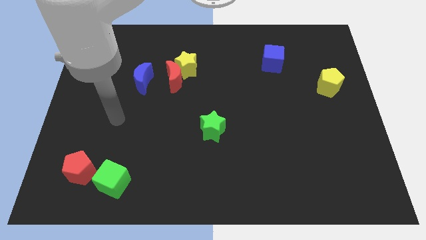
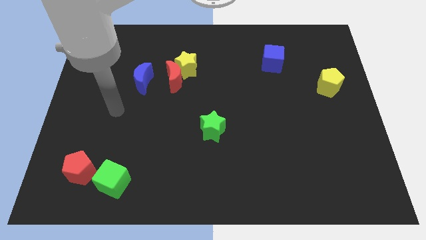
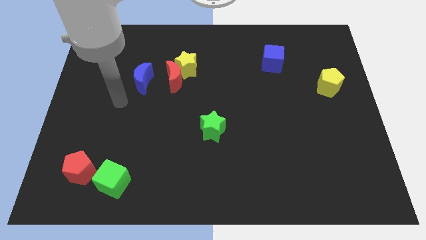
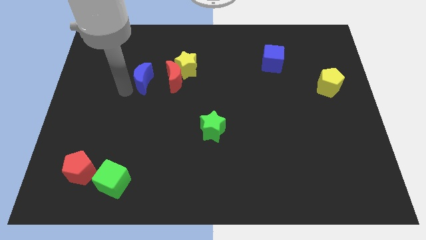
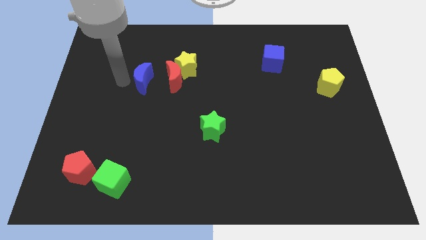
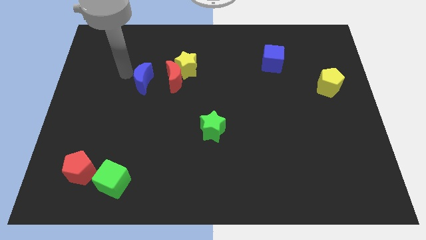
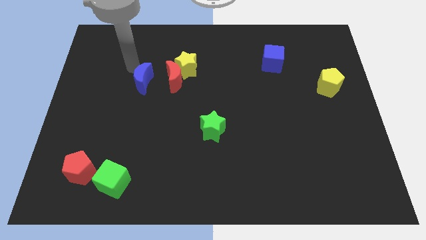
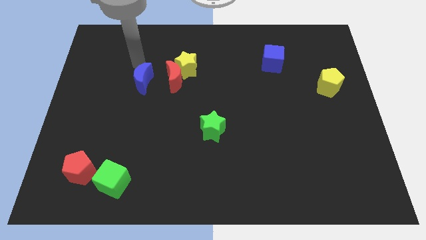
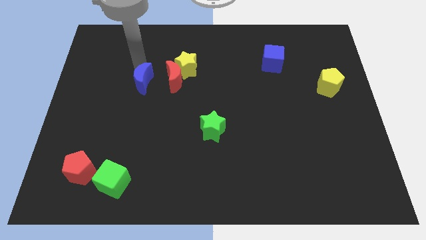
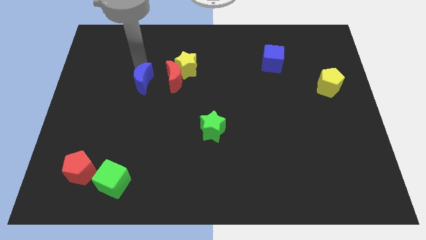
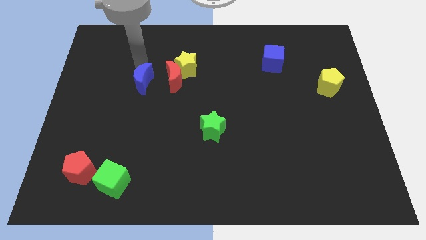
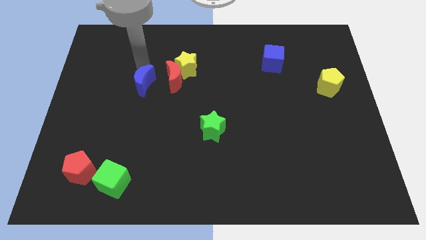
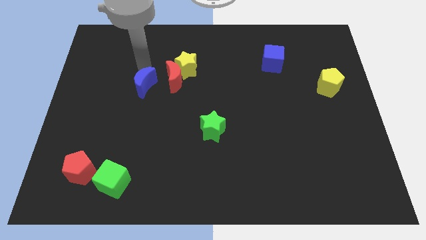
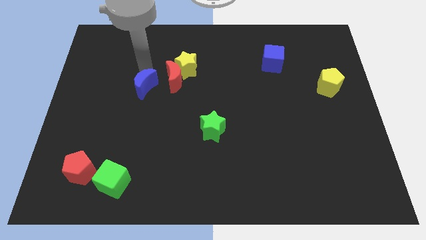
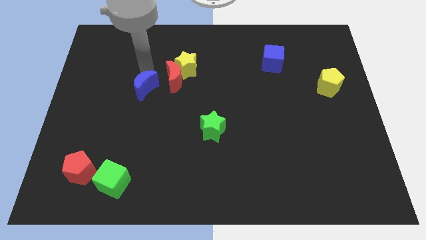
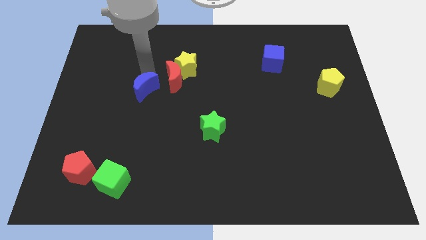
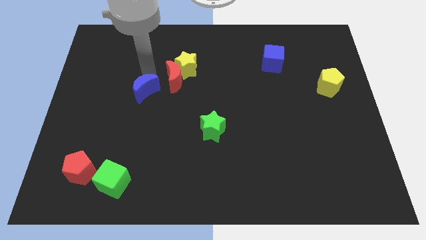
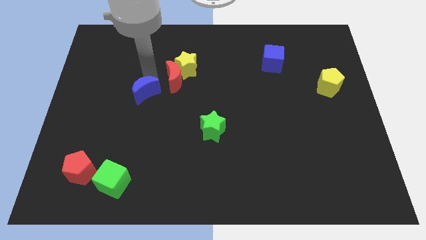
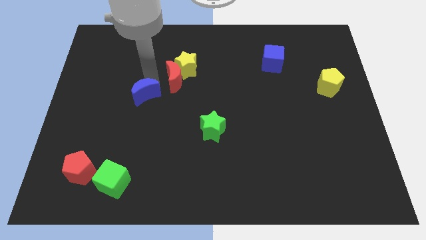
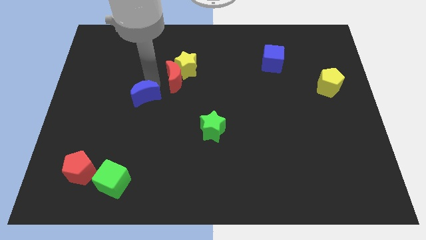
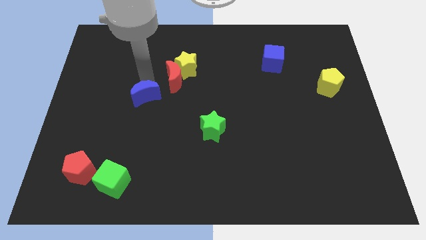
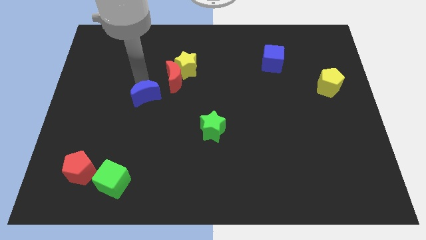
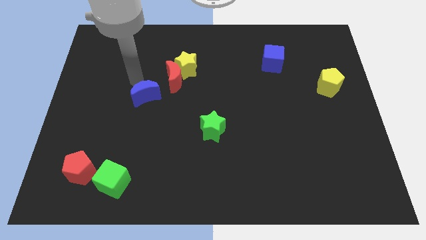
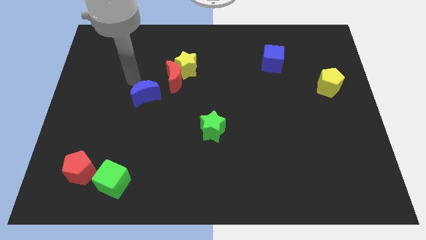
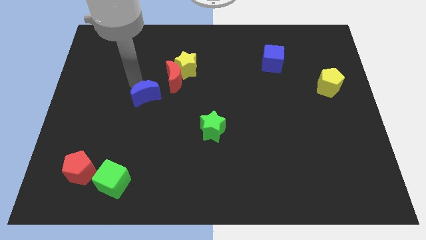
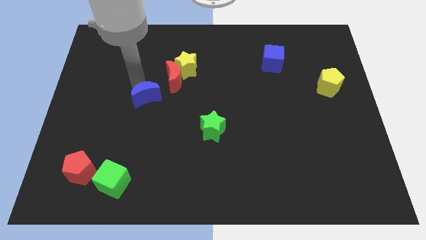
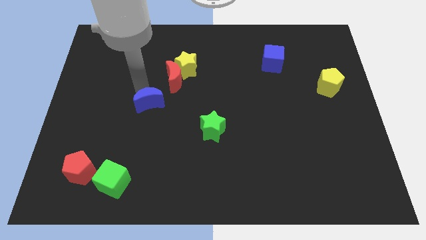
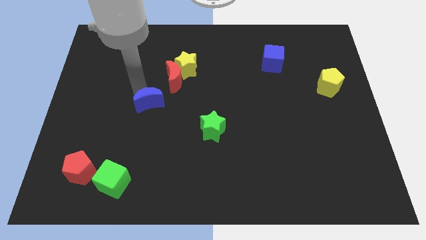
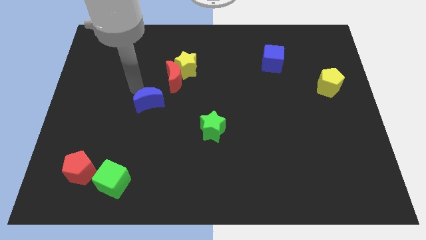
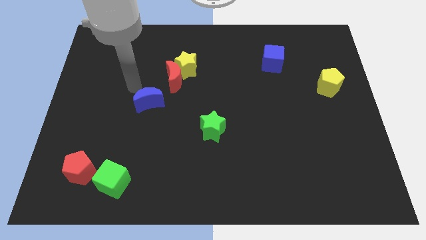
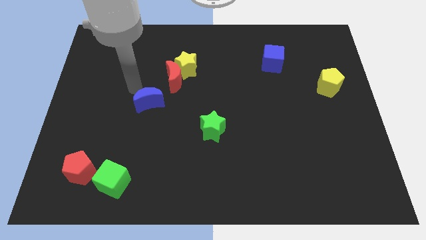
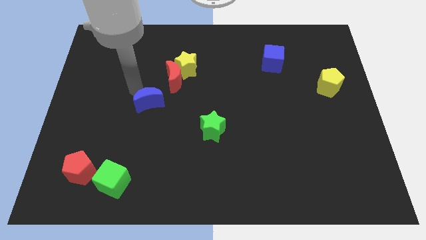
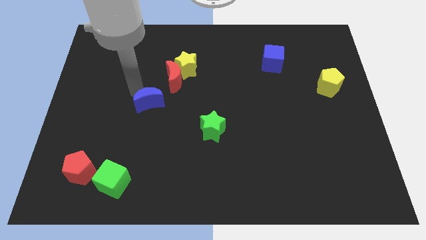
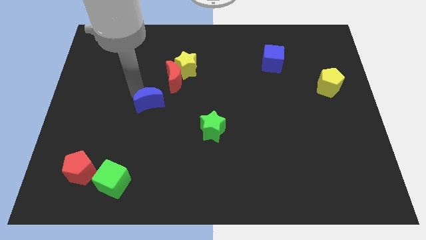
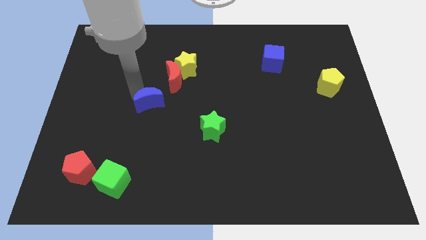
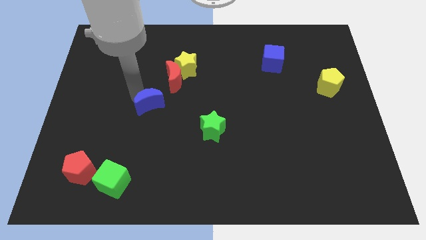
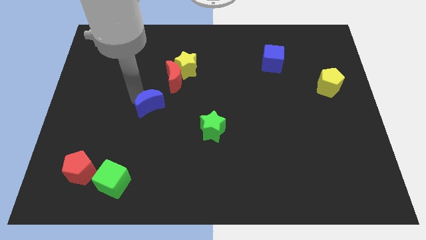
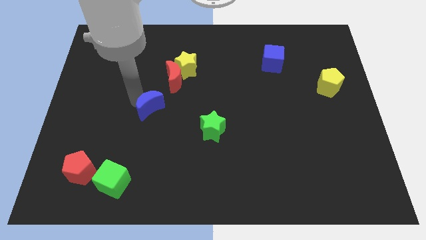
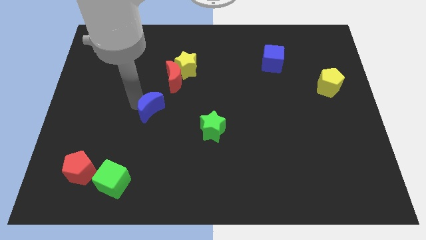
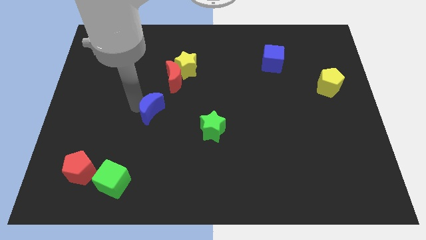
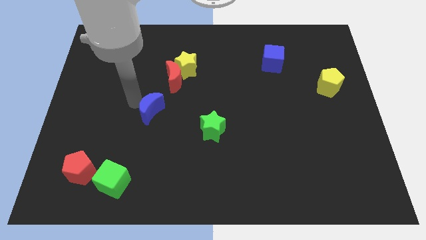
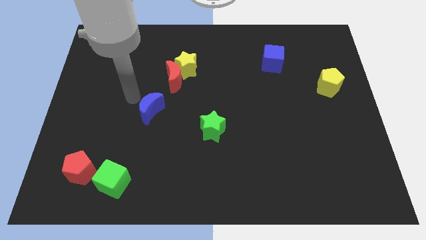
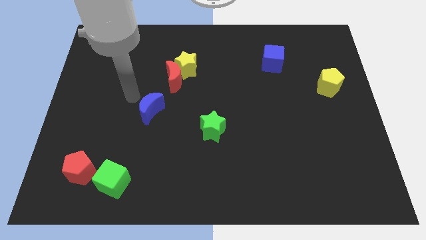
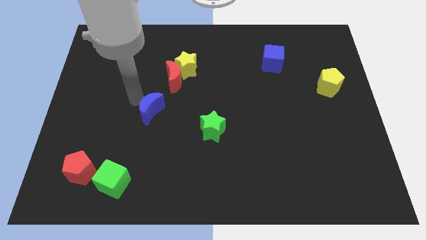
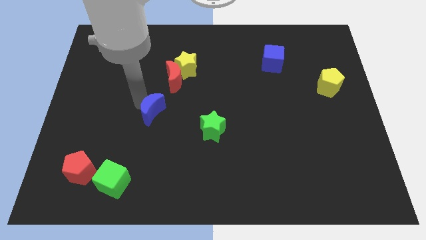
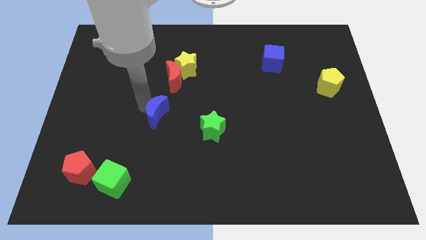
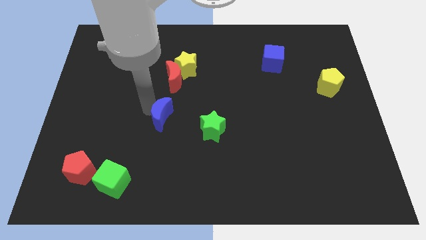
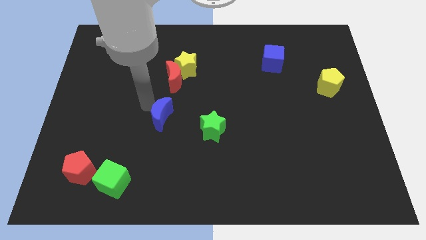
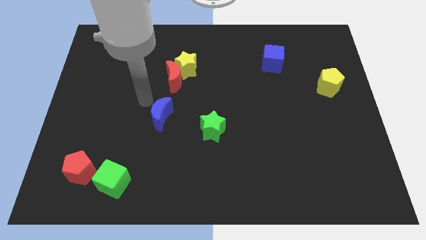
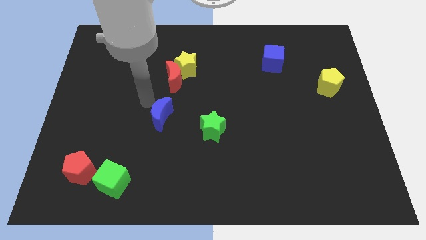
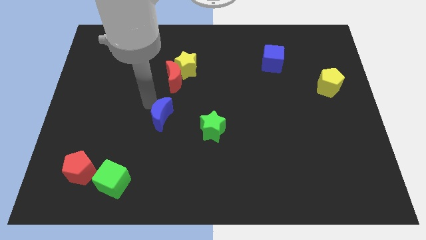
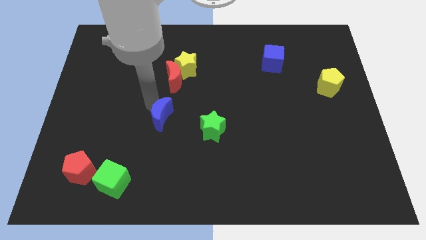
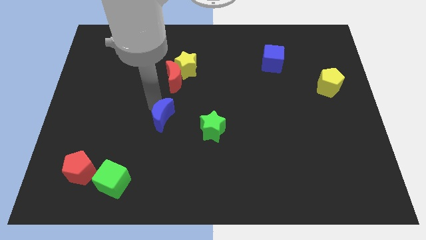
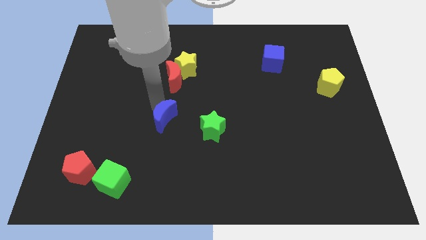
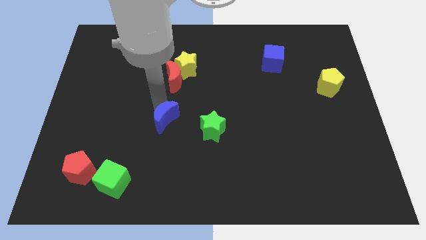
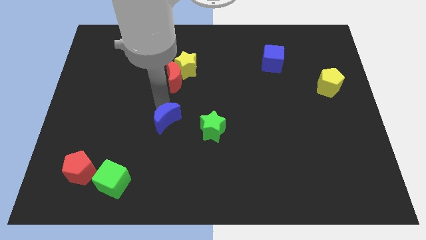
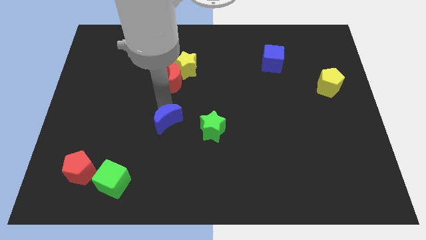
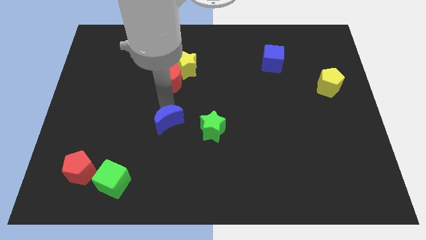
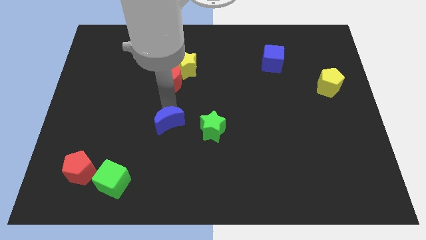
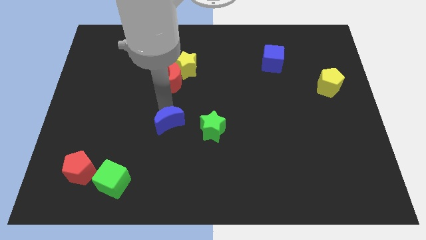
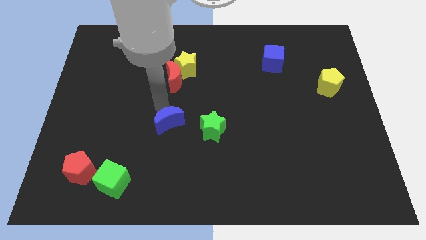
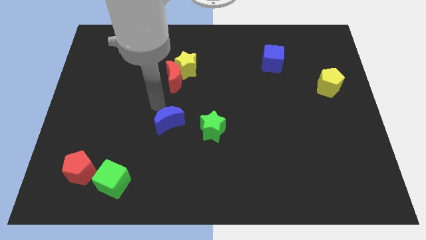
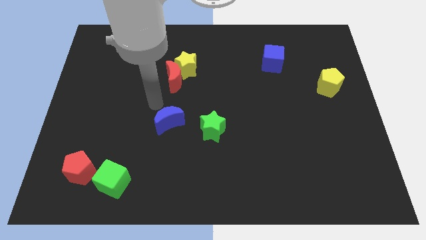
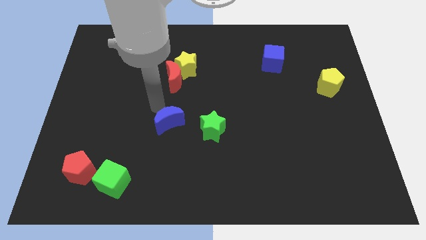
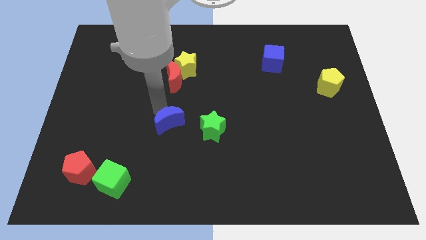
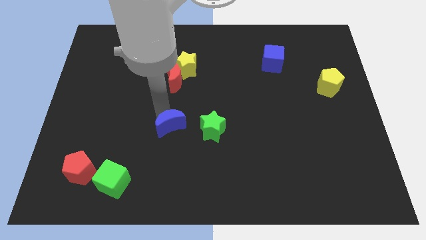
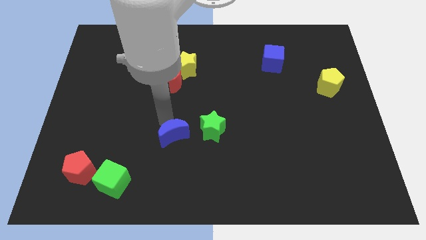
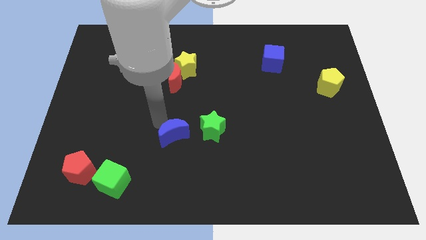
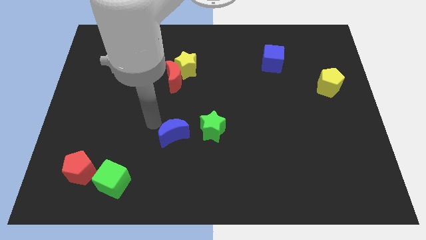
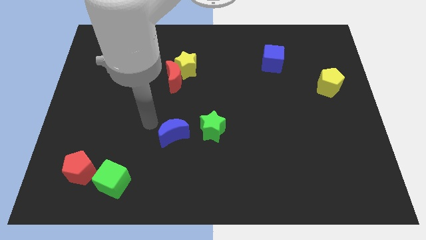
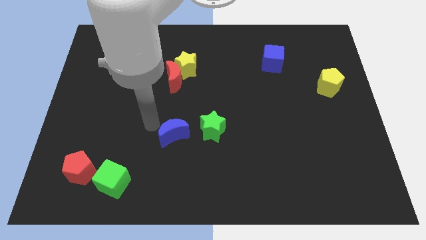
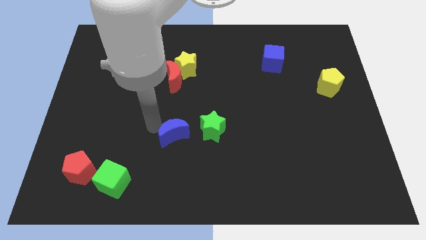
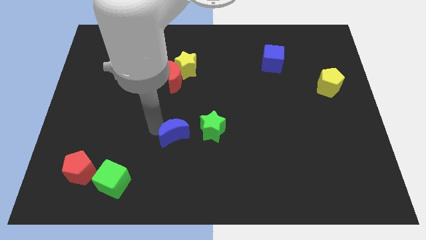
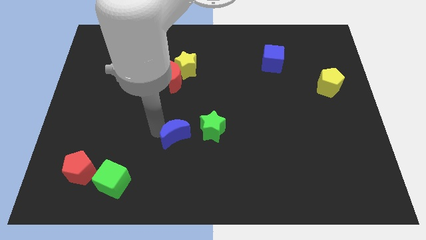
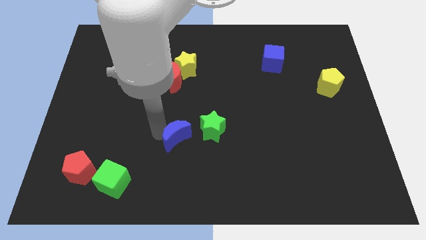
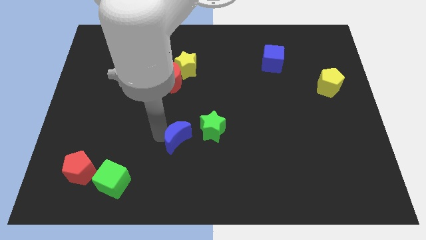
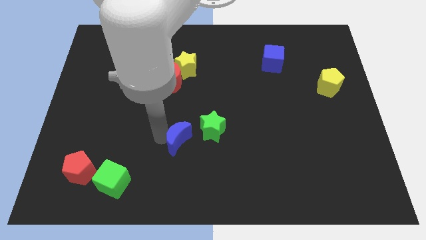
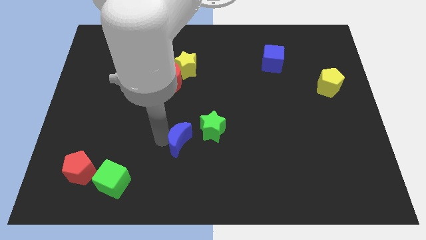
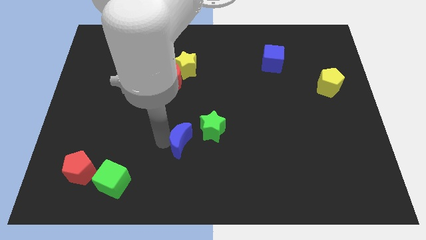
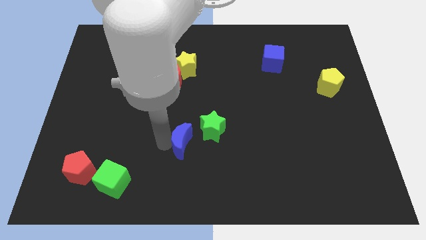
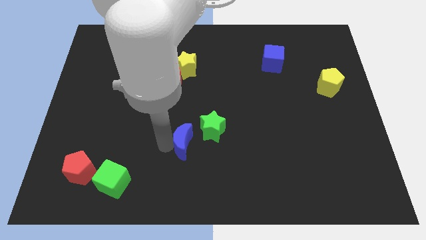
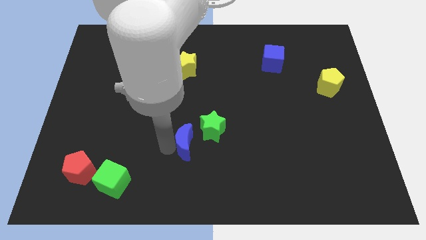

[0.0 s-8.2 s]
slide the blue moon diagonally downwards and right
